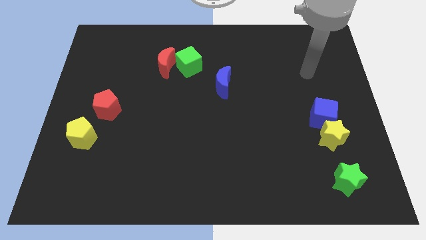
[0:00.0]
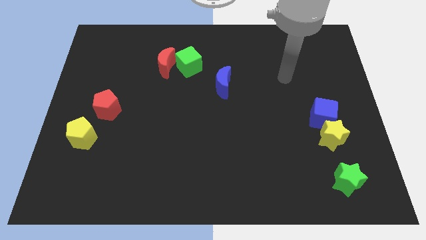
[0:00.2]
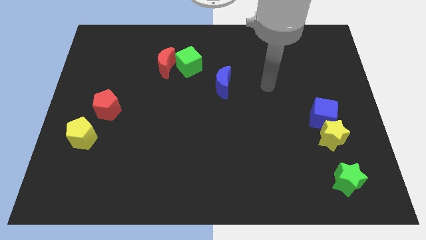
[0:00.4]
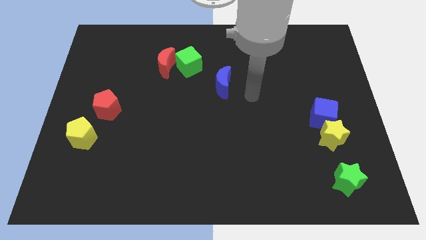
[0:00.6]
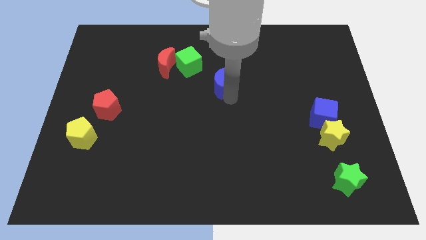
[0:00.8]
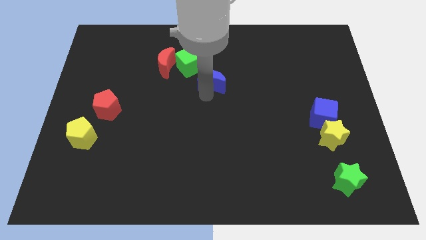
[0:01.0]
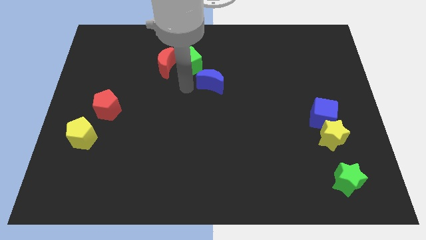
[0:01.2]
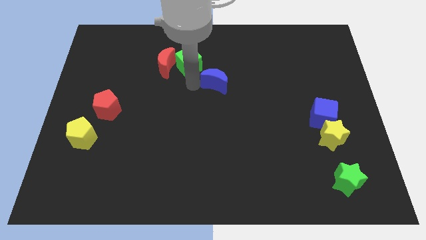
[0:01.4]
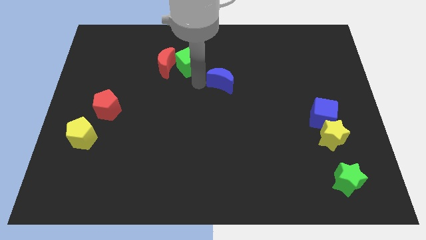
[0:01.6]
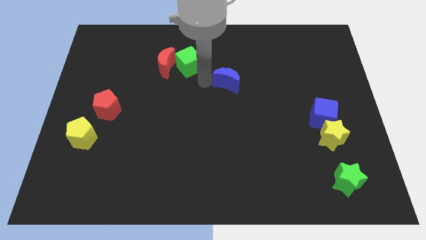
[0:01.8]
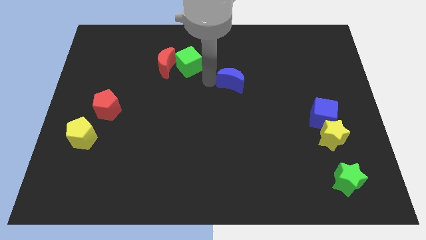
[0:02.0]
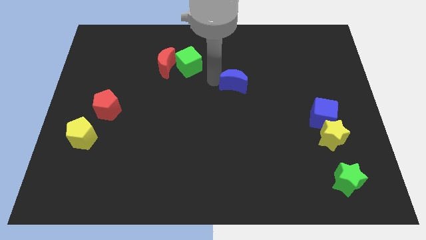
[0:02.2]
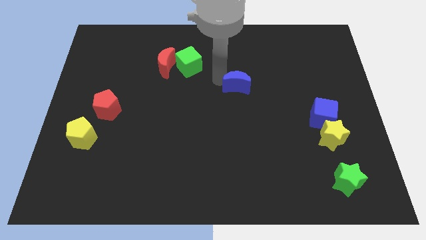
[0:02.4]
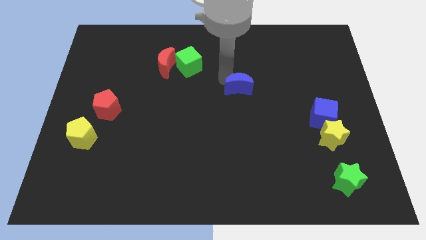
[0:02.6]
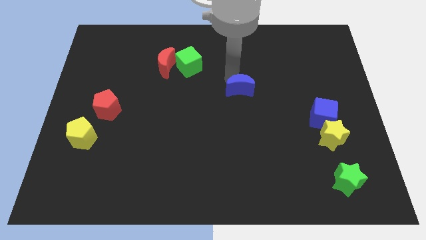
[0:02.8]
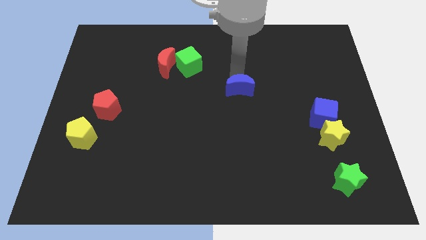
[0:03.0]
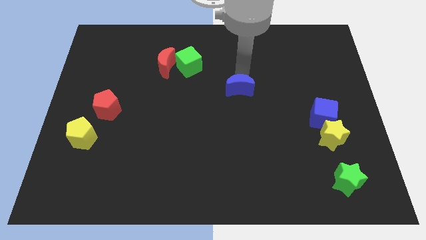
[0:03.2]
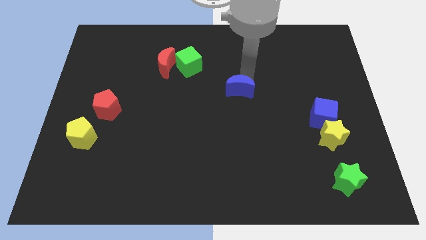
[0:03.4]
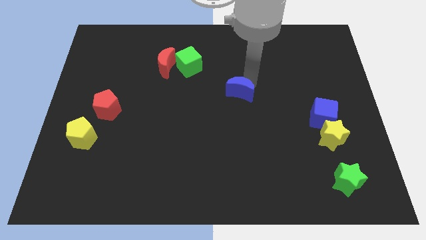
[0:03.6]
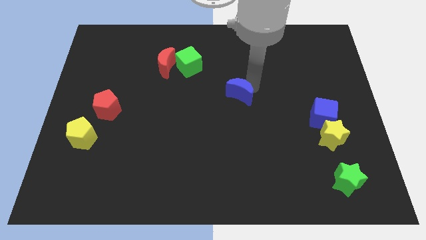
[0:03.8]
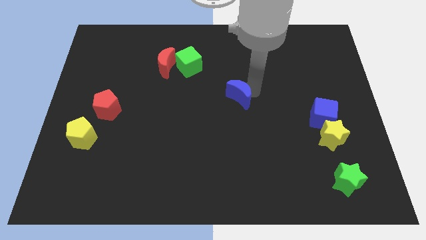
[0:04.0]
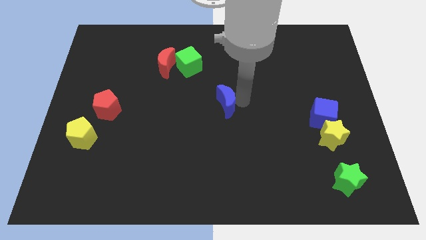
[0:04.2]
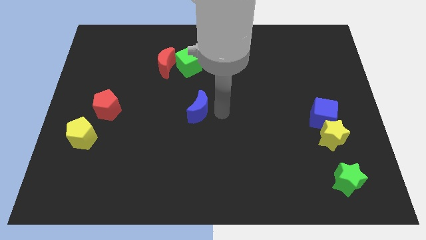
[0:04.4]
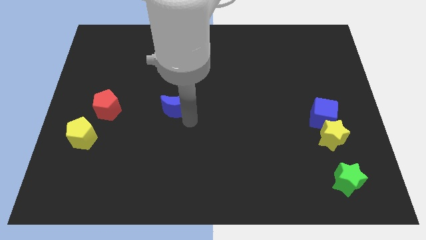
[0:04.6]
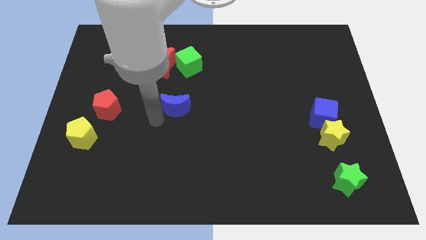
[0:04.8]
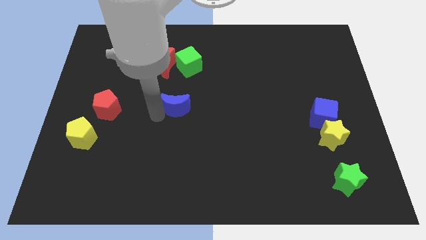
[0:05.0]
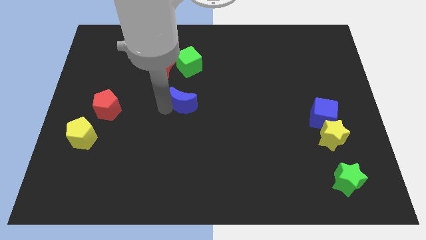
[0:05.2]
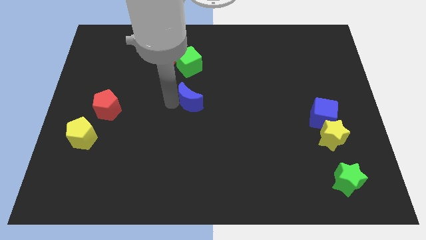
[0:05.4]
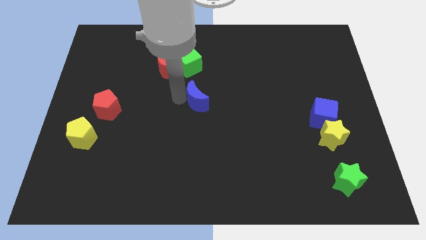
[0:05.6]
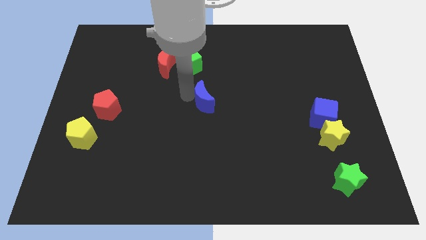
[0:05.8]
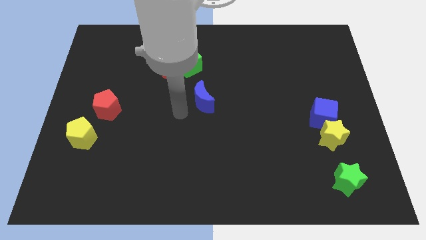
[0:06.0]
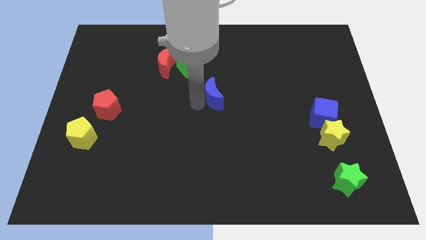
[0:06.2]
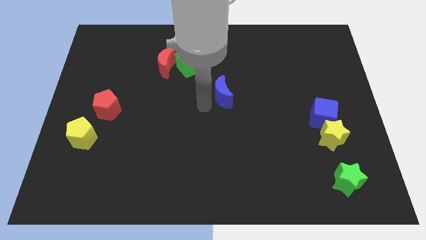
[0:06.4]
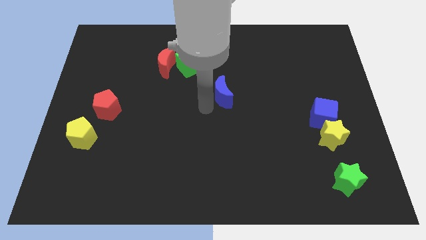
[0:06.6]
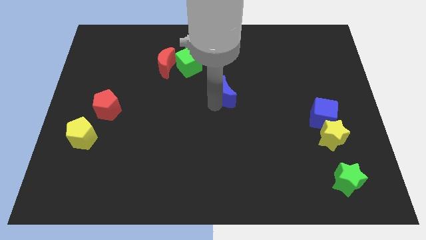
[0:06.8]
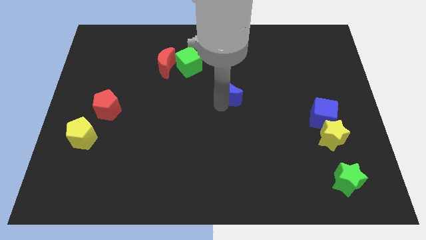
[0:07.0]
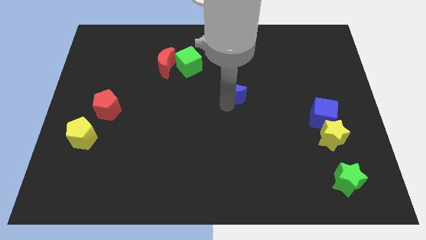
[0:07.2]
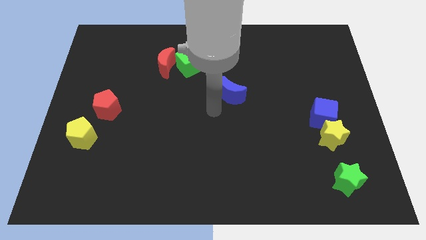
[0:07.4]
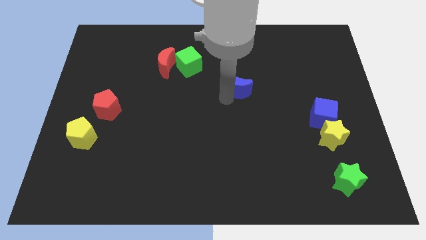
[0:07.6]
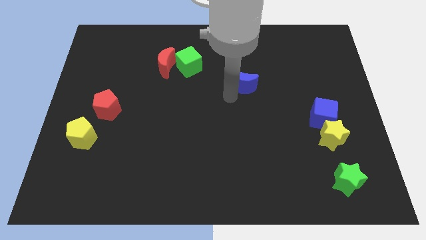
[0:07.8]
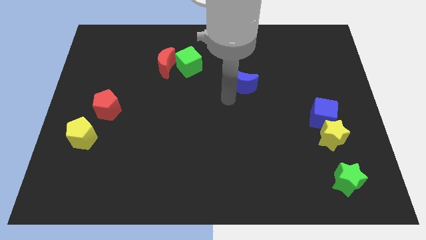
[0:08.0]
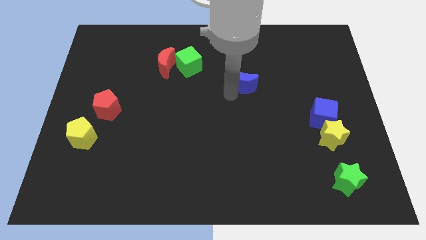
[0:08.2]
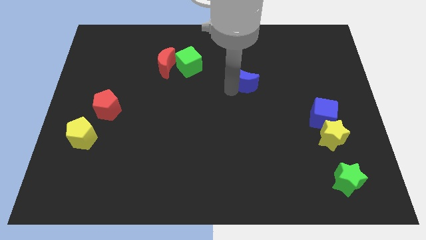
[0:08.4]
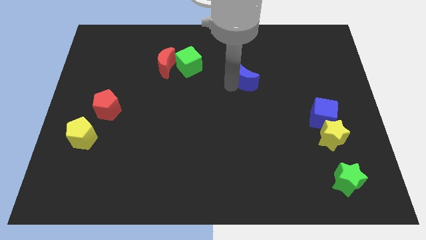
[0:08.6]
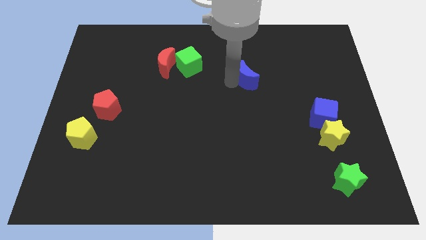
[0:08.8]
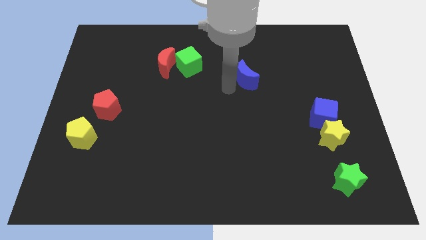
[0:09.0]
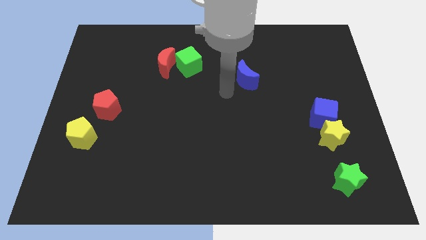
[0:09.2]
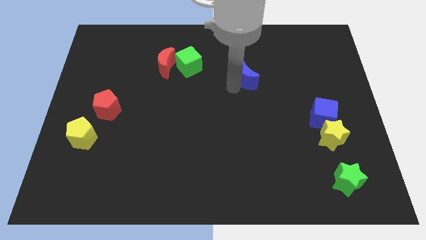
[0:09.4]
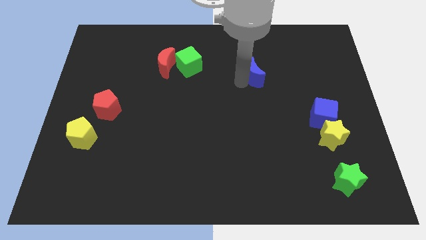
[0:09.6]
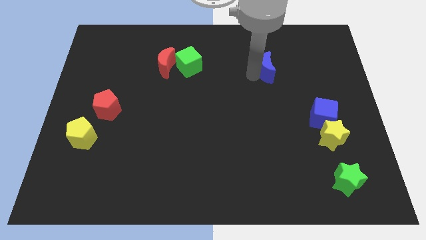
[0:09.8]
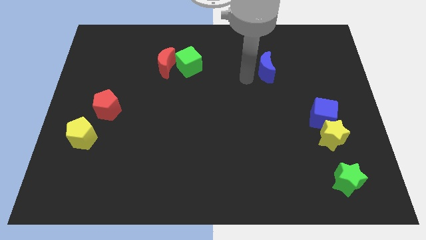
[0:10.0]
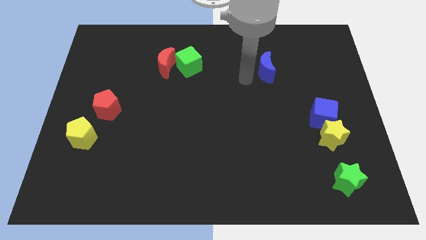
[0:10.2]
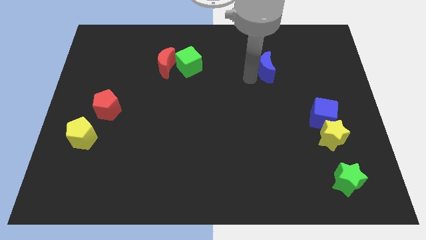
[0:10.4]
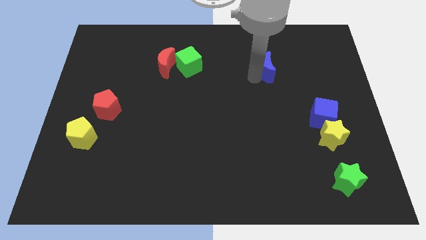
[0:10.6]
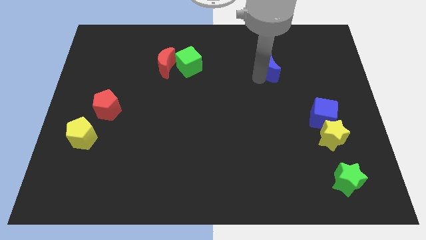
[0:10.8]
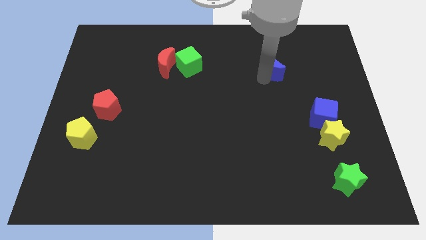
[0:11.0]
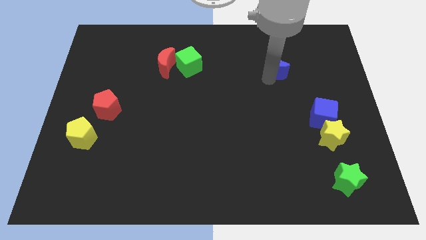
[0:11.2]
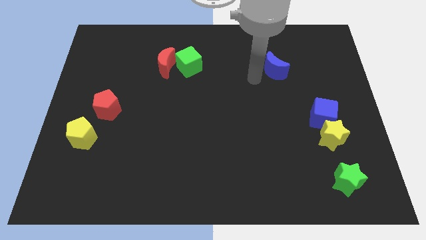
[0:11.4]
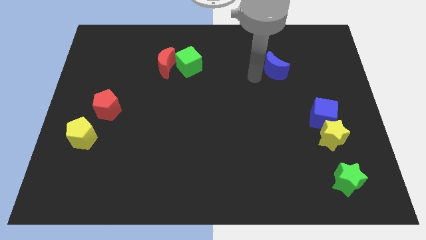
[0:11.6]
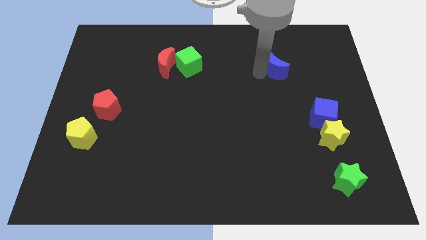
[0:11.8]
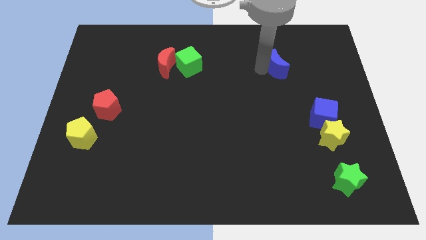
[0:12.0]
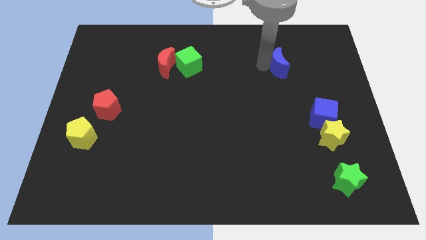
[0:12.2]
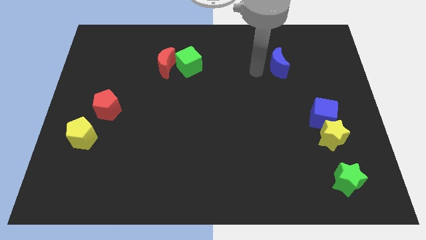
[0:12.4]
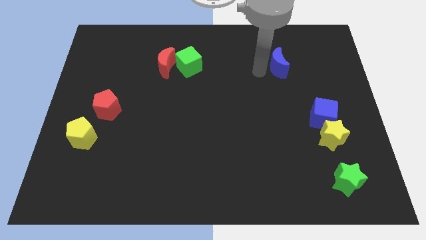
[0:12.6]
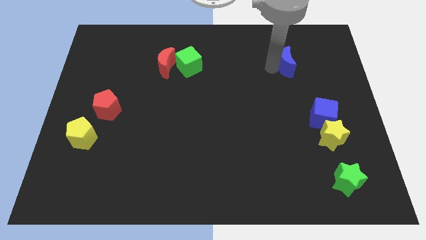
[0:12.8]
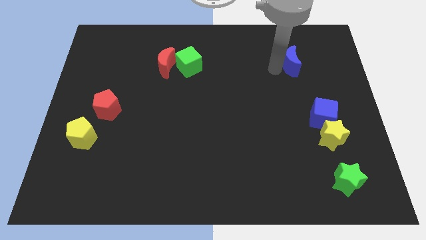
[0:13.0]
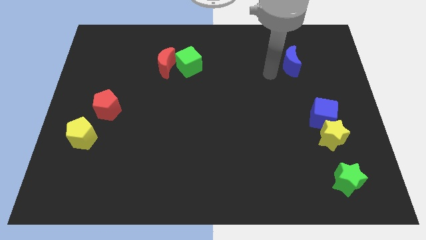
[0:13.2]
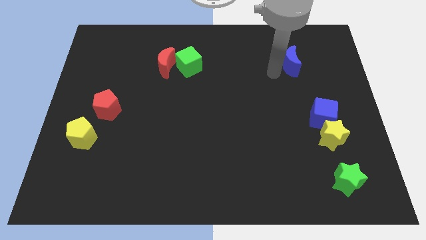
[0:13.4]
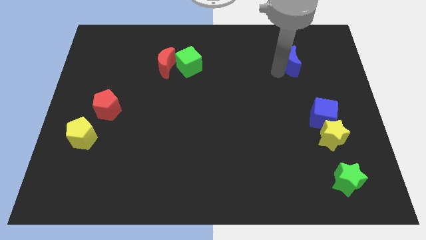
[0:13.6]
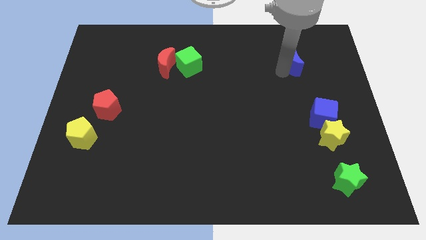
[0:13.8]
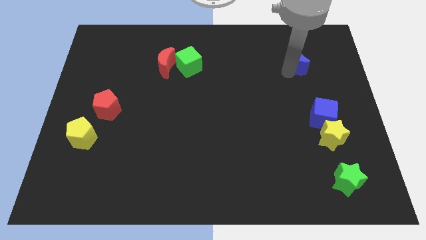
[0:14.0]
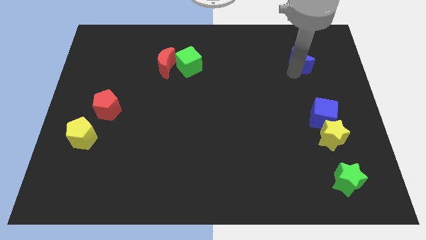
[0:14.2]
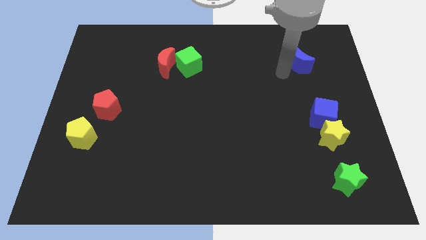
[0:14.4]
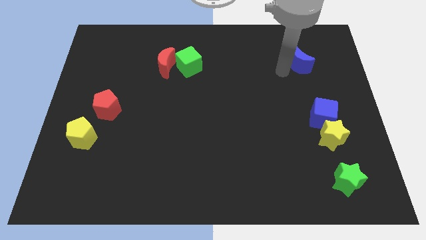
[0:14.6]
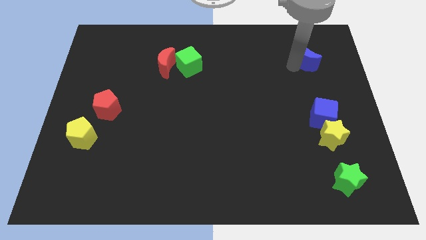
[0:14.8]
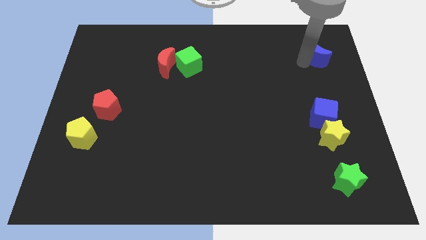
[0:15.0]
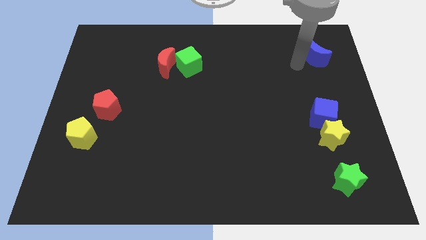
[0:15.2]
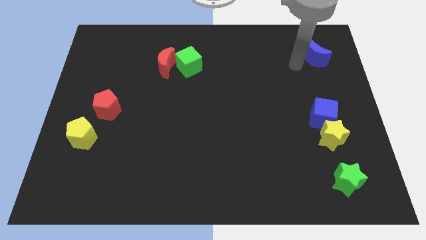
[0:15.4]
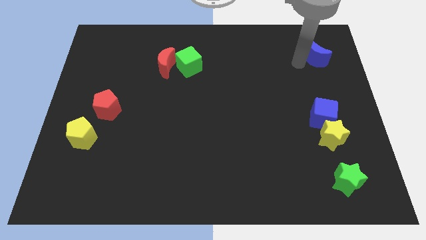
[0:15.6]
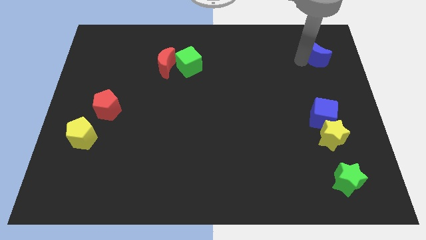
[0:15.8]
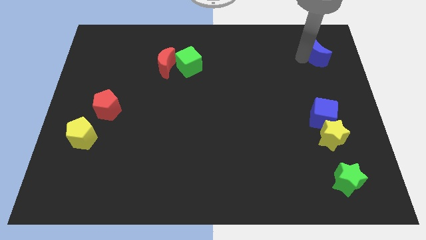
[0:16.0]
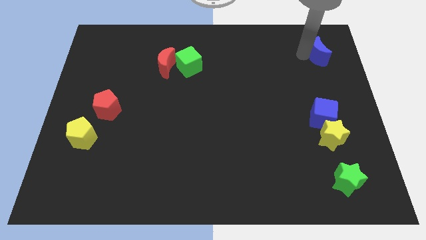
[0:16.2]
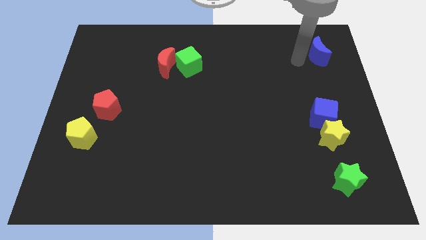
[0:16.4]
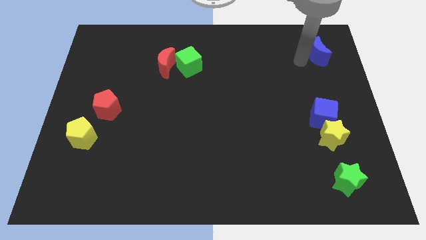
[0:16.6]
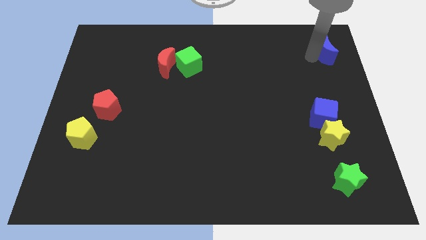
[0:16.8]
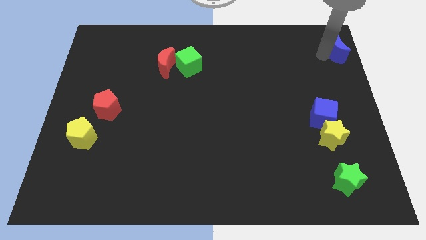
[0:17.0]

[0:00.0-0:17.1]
move the blue moon to the top right of the board
